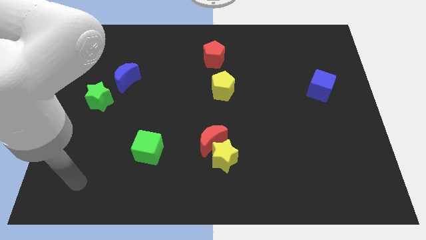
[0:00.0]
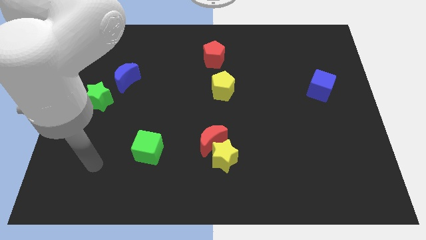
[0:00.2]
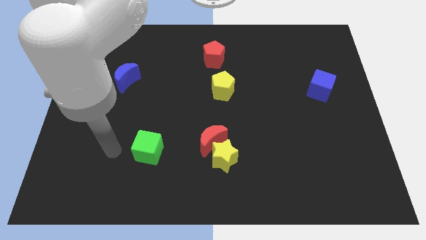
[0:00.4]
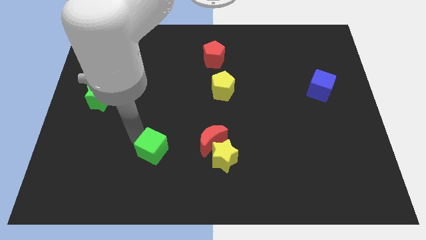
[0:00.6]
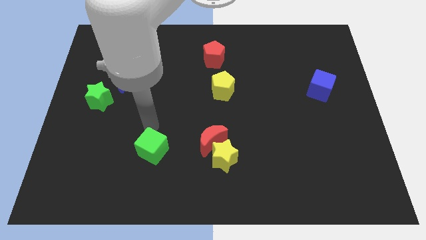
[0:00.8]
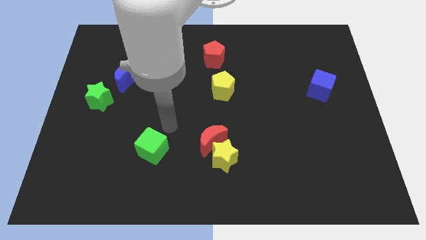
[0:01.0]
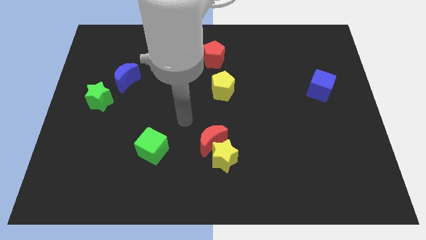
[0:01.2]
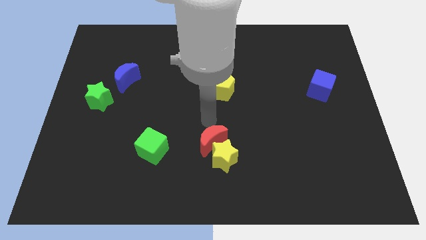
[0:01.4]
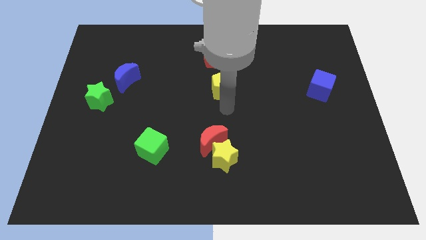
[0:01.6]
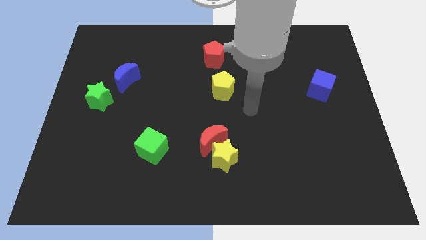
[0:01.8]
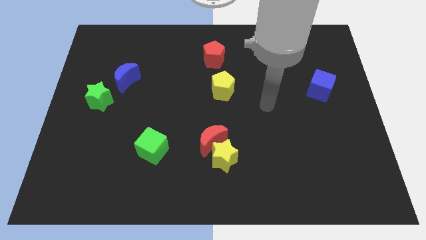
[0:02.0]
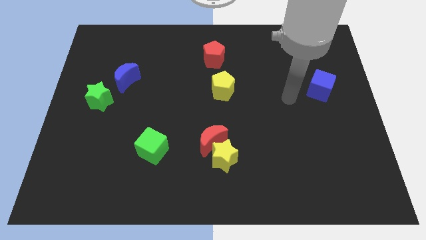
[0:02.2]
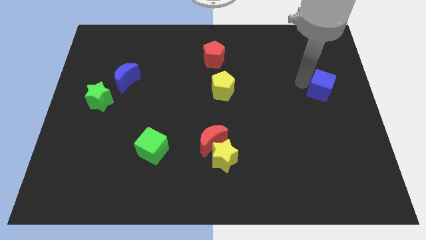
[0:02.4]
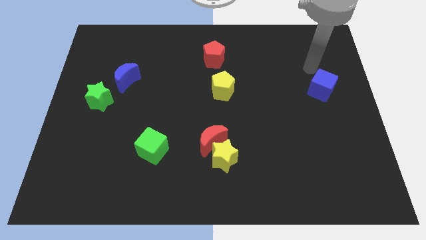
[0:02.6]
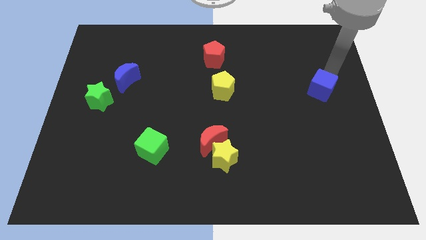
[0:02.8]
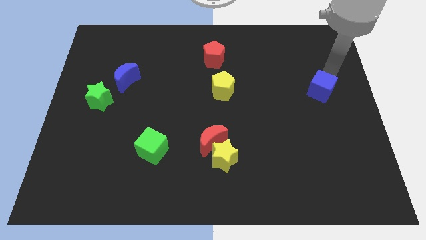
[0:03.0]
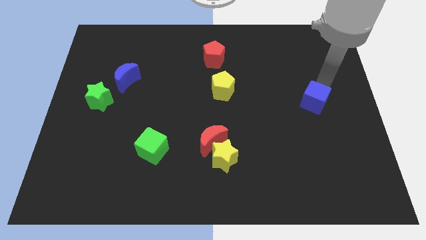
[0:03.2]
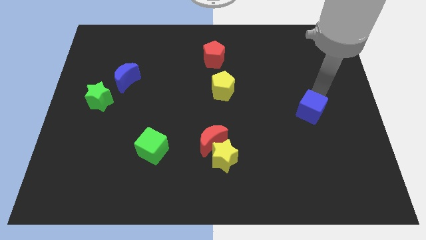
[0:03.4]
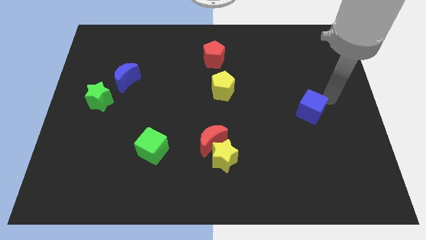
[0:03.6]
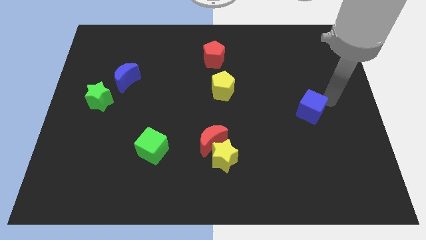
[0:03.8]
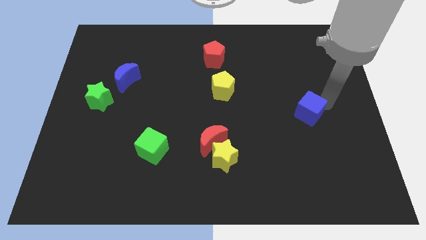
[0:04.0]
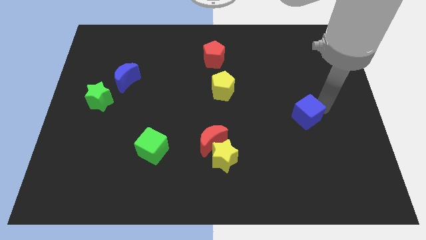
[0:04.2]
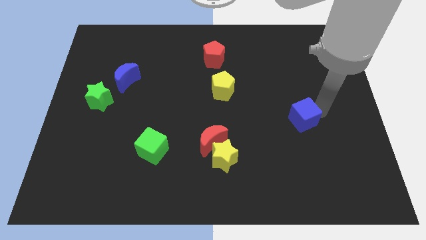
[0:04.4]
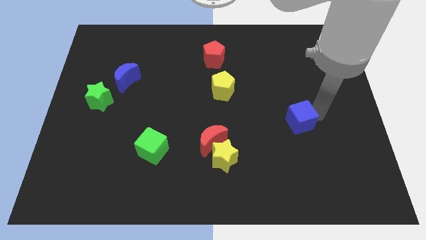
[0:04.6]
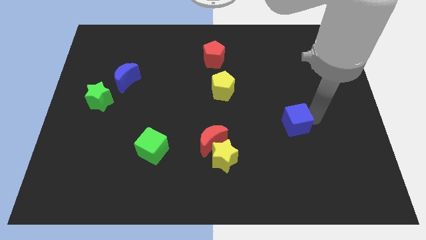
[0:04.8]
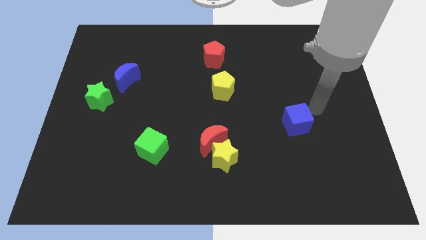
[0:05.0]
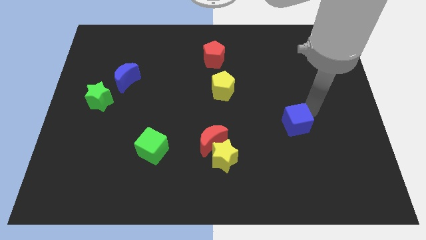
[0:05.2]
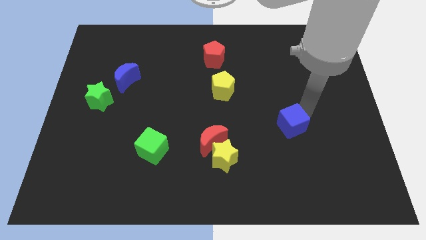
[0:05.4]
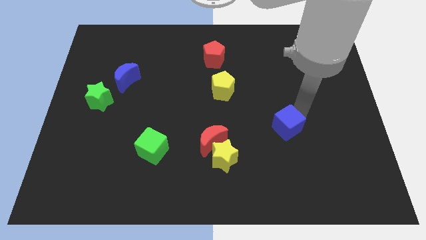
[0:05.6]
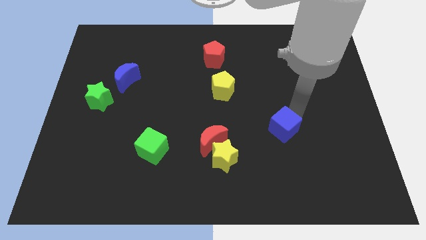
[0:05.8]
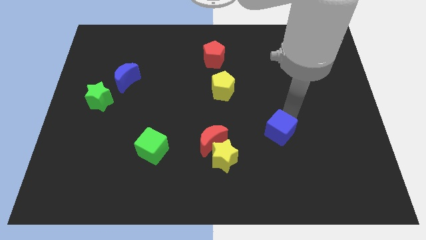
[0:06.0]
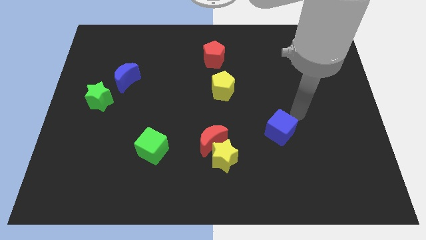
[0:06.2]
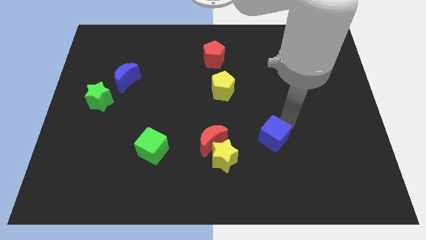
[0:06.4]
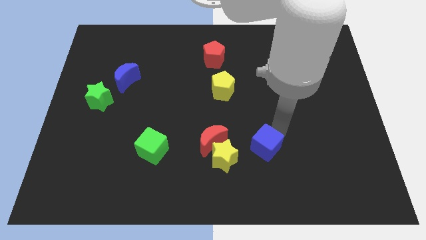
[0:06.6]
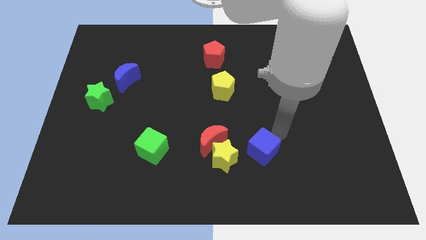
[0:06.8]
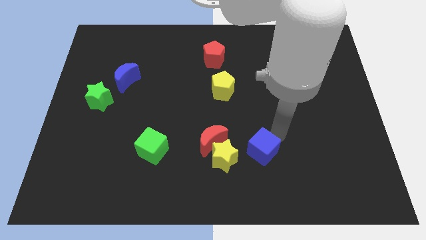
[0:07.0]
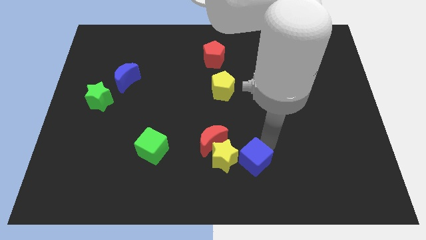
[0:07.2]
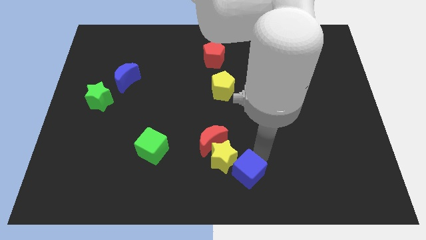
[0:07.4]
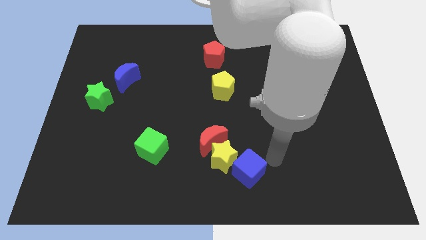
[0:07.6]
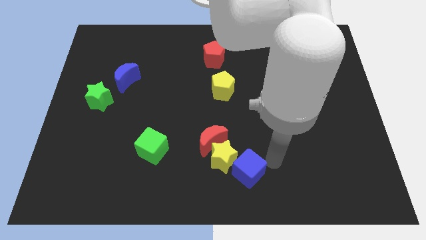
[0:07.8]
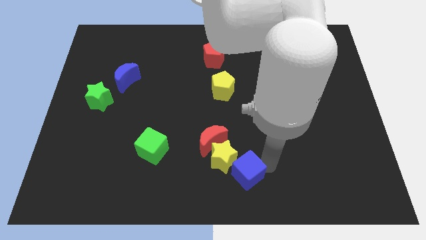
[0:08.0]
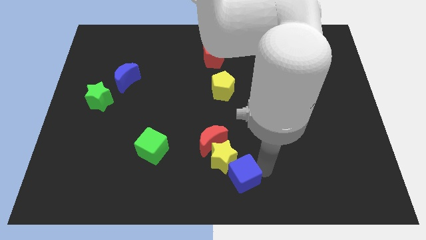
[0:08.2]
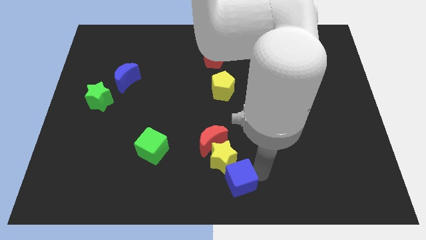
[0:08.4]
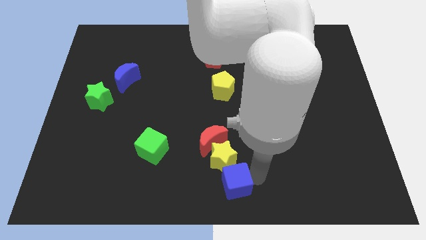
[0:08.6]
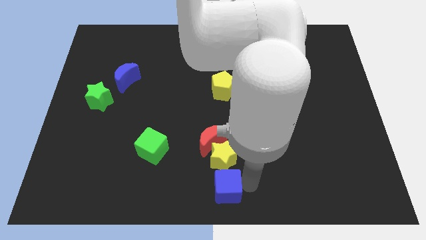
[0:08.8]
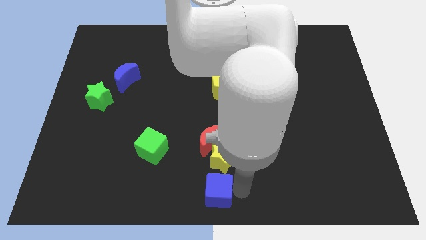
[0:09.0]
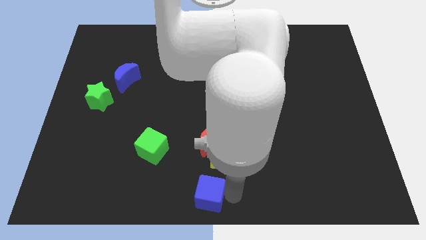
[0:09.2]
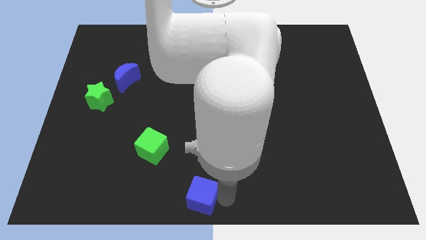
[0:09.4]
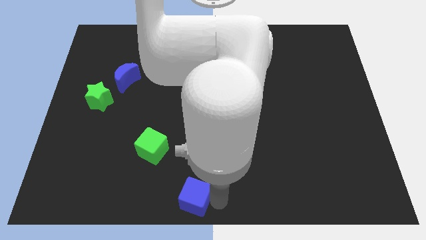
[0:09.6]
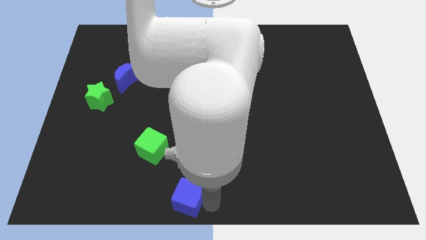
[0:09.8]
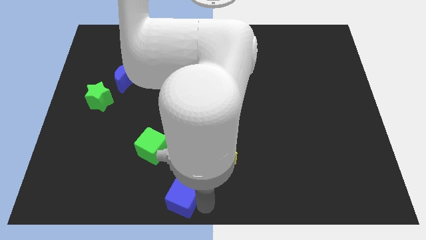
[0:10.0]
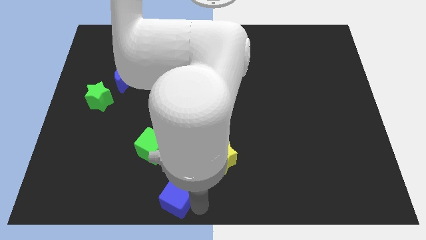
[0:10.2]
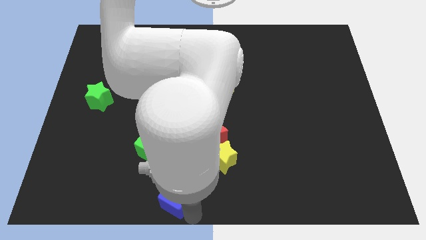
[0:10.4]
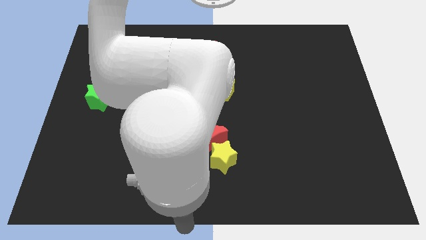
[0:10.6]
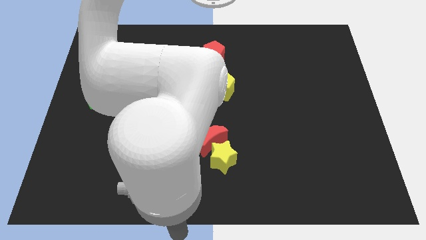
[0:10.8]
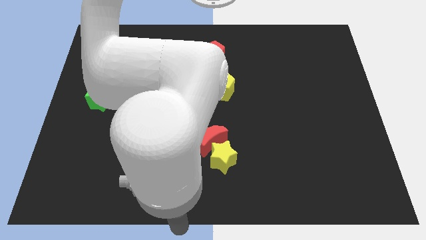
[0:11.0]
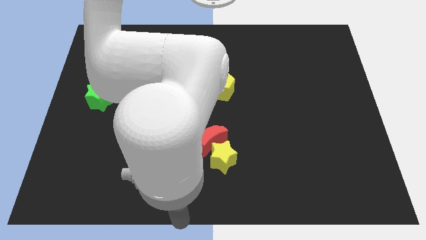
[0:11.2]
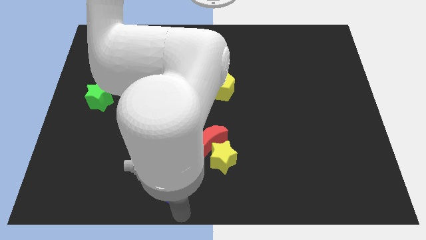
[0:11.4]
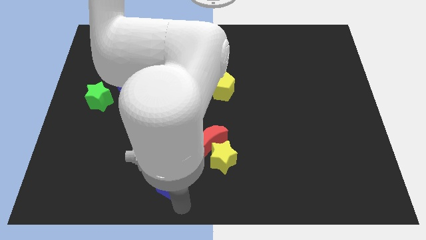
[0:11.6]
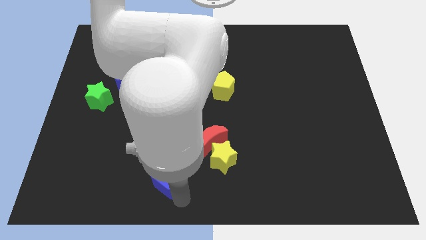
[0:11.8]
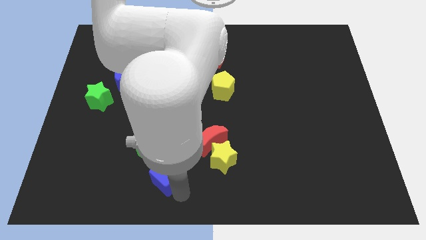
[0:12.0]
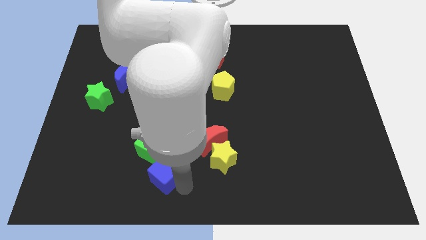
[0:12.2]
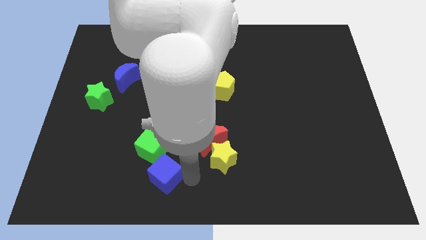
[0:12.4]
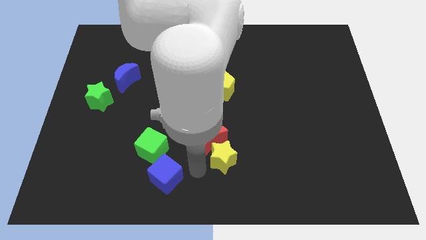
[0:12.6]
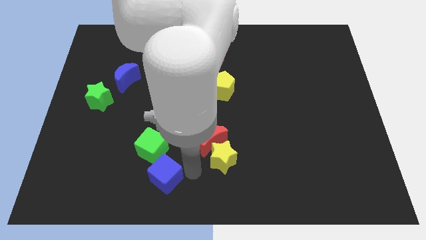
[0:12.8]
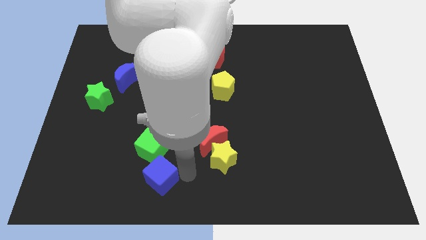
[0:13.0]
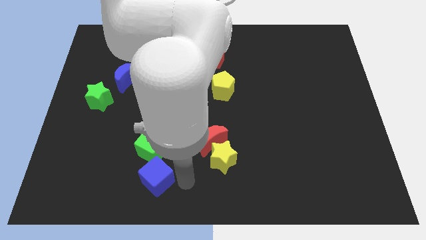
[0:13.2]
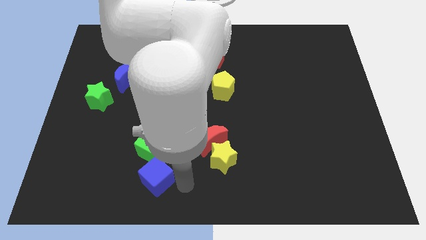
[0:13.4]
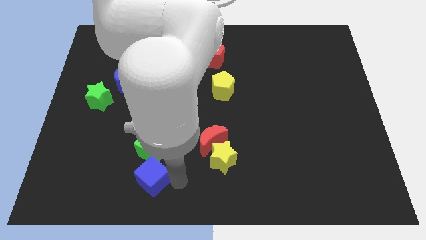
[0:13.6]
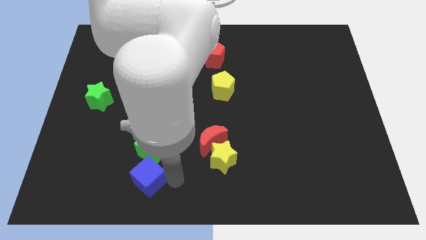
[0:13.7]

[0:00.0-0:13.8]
put the blue cube to the bottom left side of the green cube

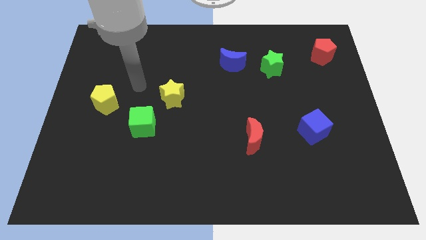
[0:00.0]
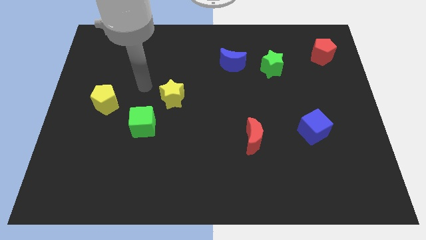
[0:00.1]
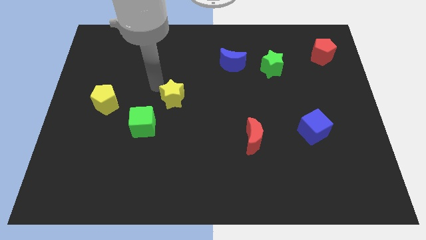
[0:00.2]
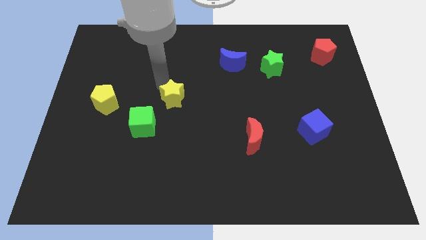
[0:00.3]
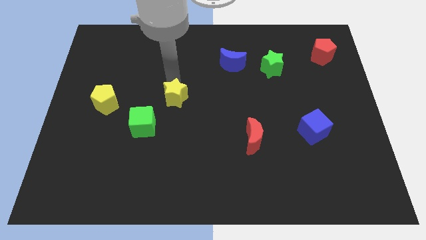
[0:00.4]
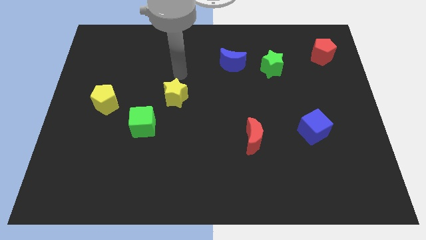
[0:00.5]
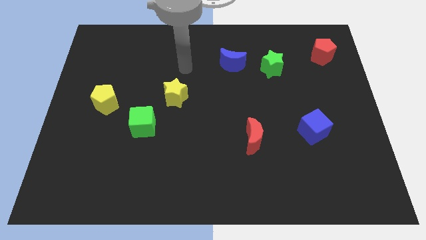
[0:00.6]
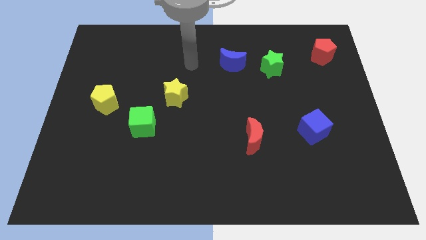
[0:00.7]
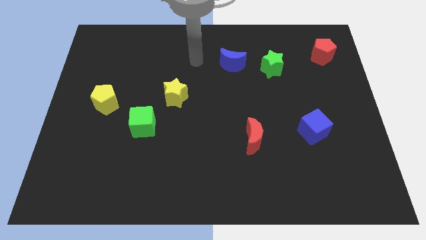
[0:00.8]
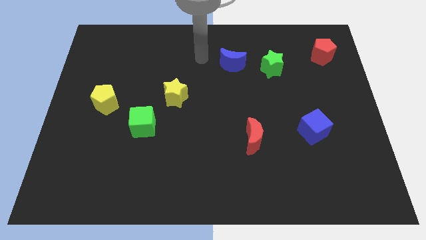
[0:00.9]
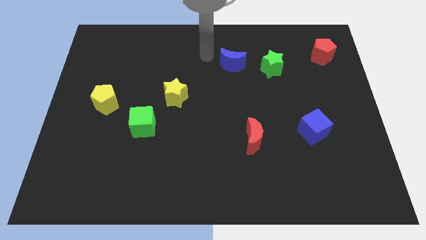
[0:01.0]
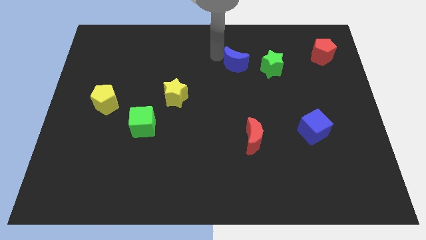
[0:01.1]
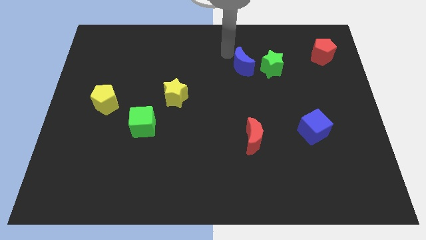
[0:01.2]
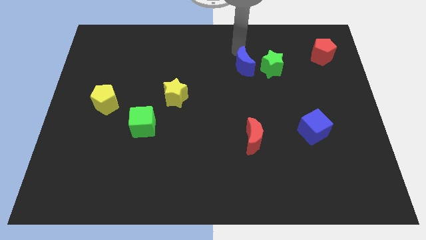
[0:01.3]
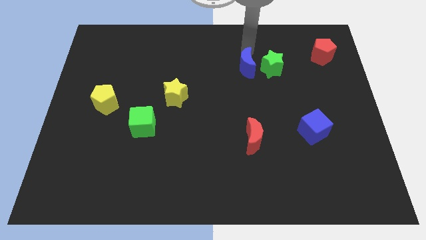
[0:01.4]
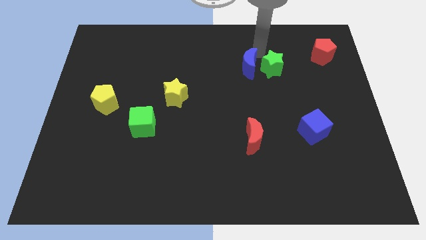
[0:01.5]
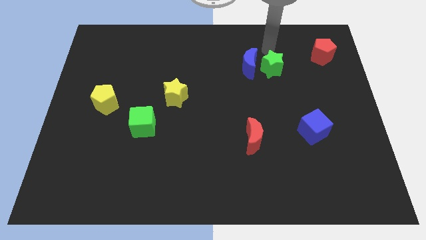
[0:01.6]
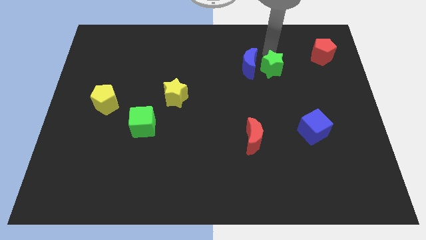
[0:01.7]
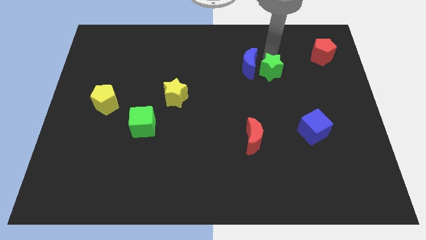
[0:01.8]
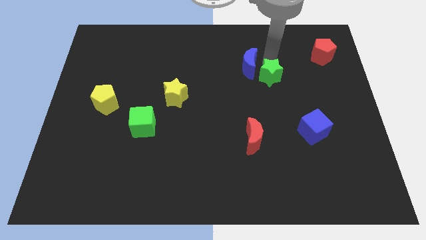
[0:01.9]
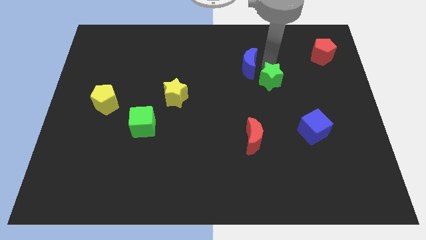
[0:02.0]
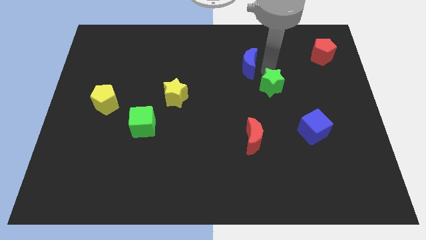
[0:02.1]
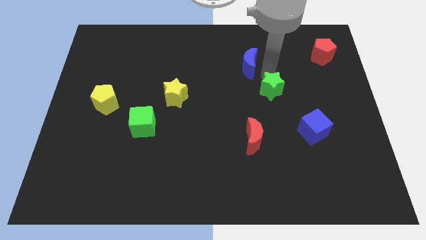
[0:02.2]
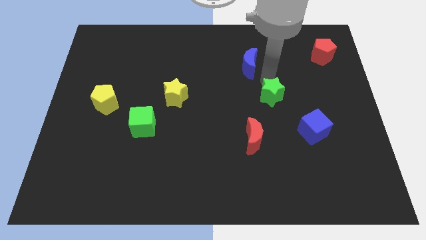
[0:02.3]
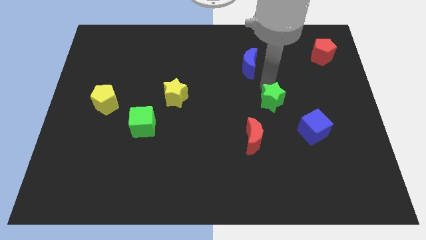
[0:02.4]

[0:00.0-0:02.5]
move the green star to the top left of the blue cube
